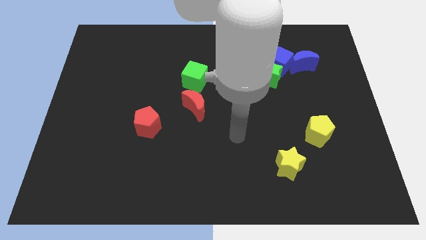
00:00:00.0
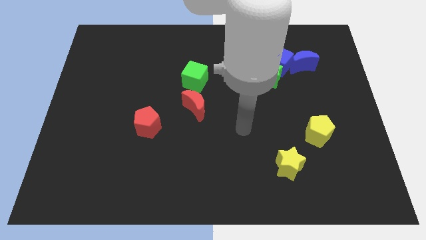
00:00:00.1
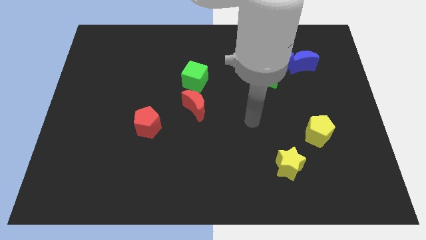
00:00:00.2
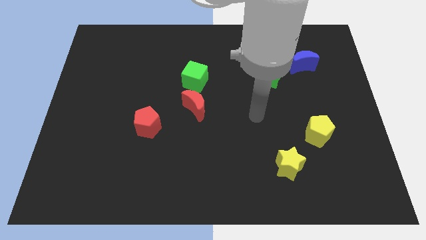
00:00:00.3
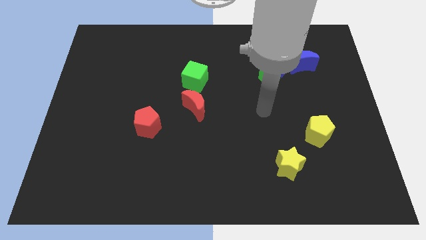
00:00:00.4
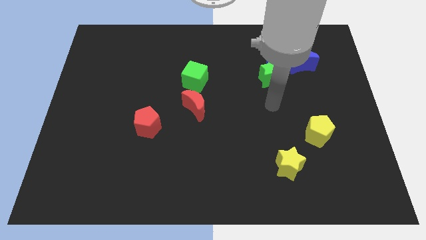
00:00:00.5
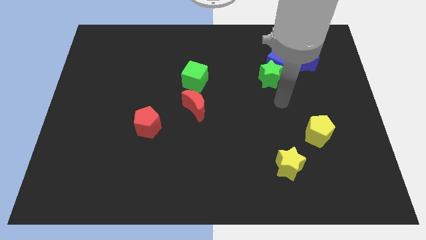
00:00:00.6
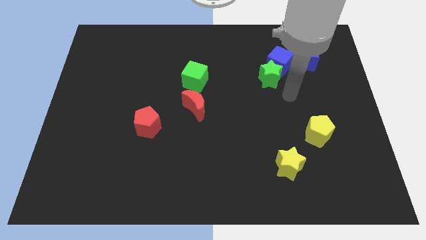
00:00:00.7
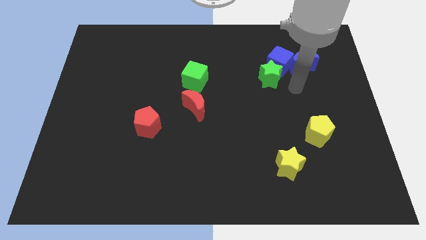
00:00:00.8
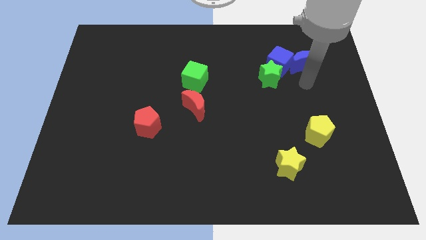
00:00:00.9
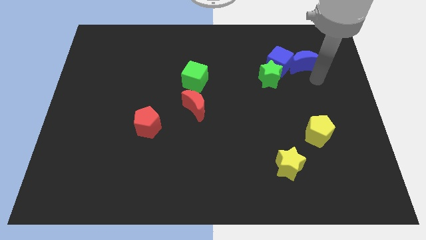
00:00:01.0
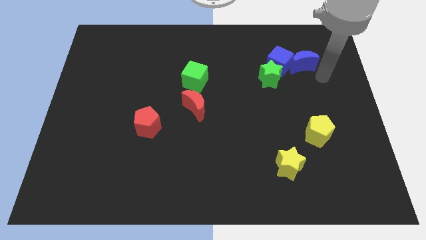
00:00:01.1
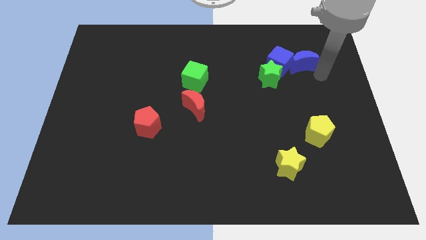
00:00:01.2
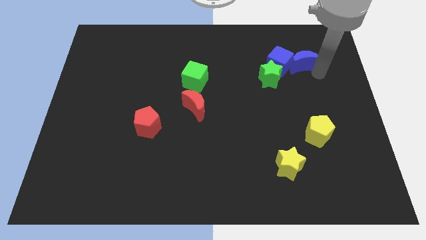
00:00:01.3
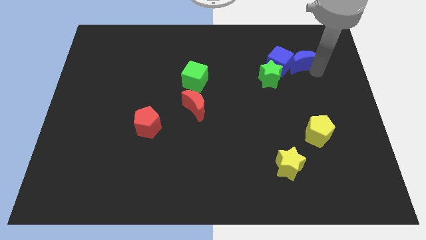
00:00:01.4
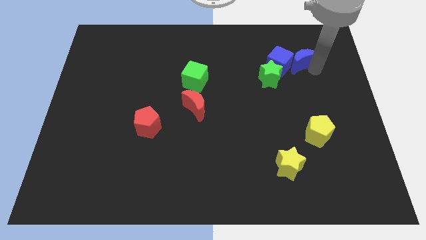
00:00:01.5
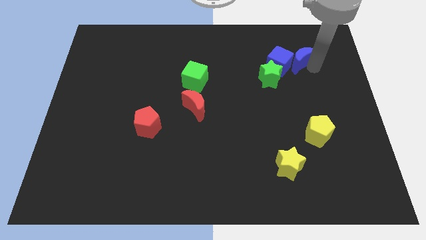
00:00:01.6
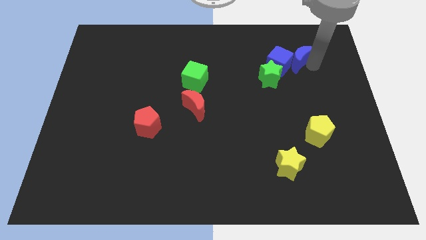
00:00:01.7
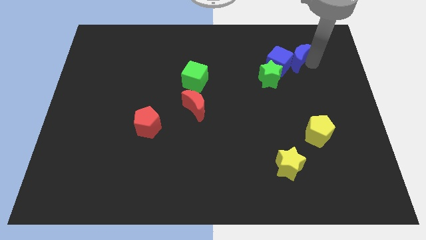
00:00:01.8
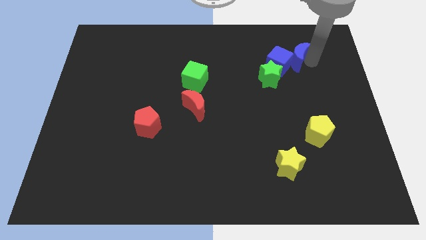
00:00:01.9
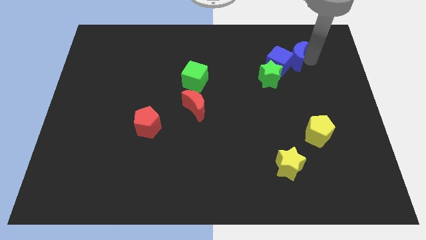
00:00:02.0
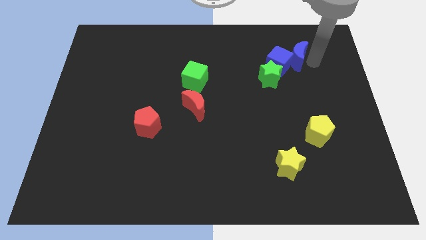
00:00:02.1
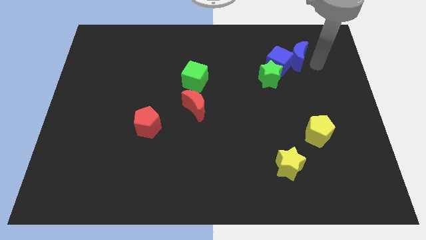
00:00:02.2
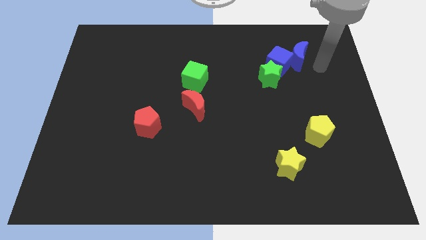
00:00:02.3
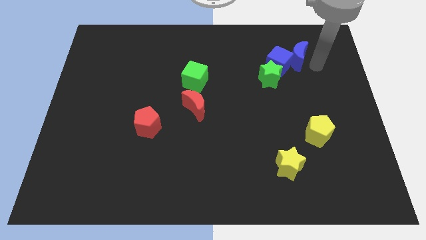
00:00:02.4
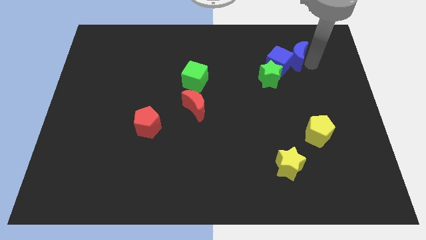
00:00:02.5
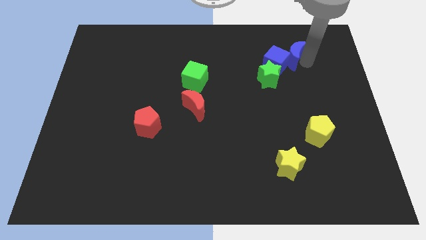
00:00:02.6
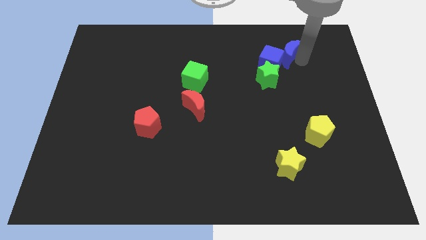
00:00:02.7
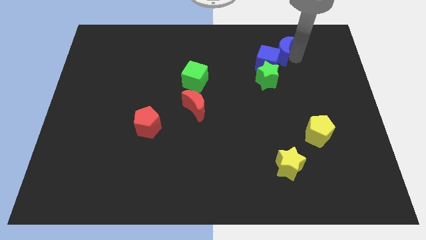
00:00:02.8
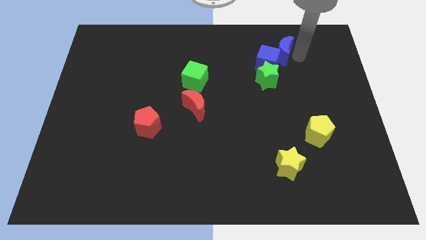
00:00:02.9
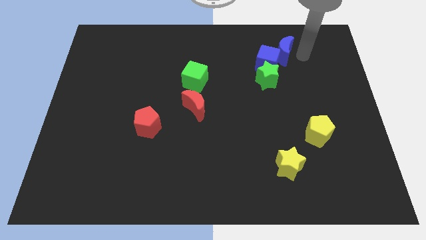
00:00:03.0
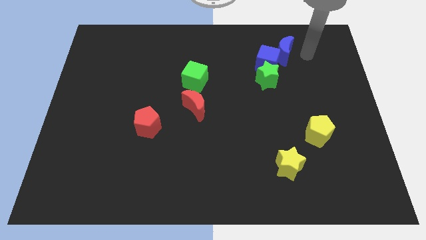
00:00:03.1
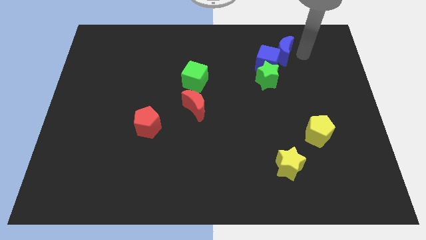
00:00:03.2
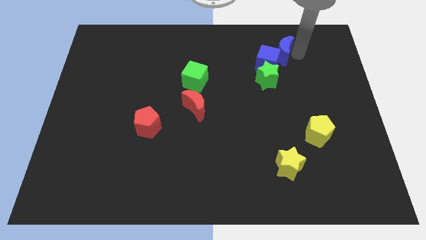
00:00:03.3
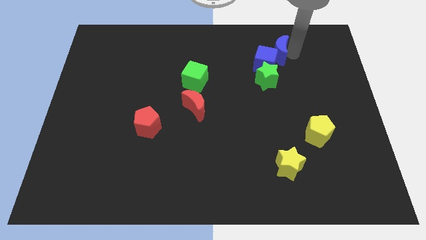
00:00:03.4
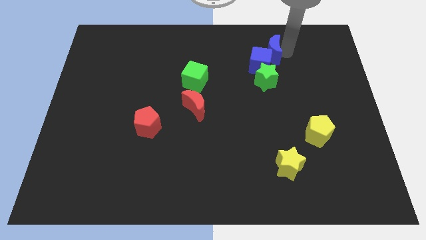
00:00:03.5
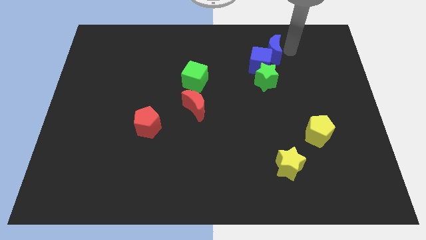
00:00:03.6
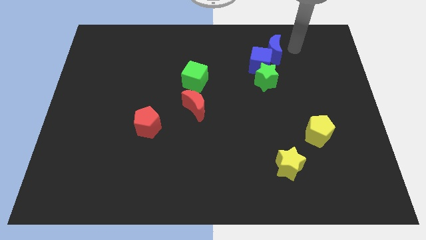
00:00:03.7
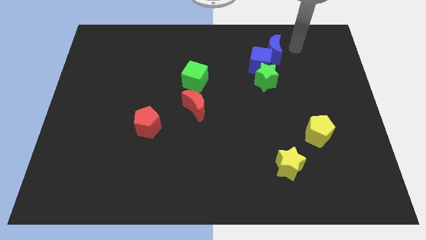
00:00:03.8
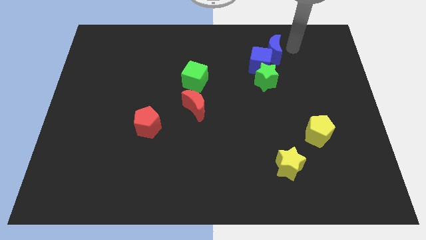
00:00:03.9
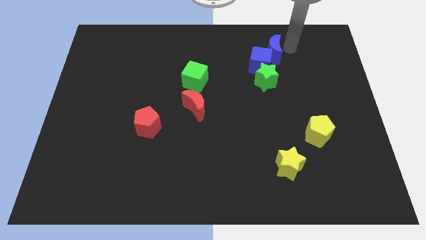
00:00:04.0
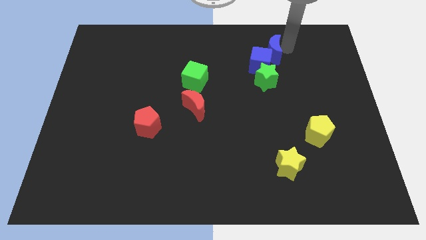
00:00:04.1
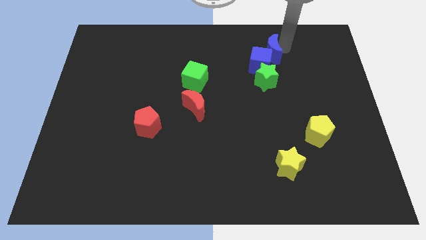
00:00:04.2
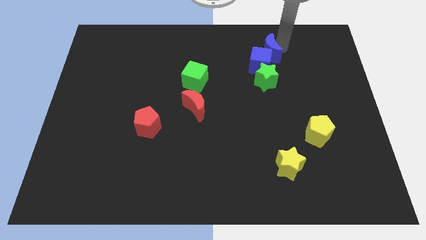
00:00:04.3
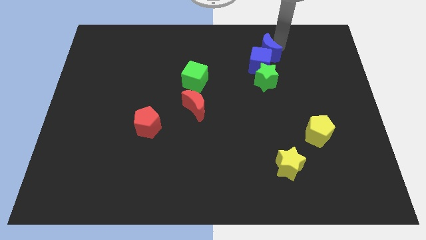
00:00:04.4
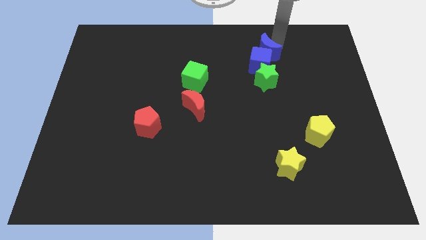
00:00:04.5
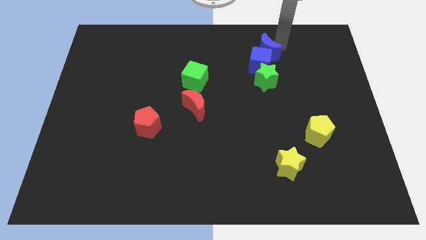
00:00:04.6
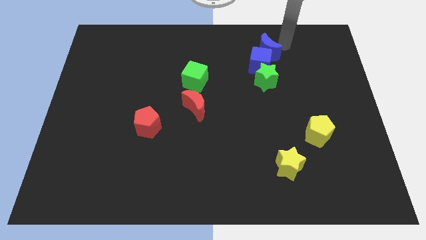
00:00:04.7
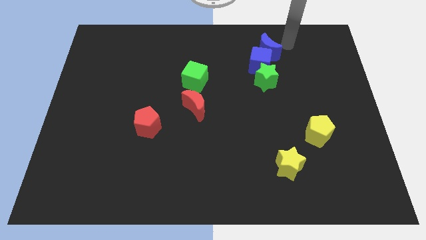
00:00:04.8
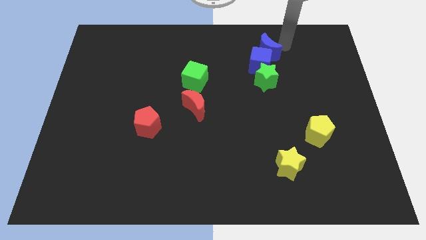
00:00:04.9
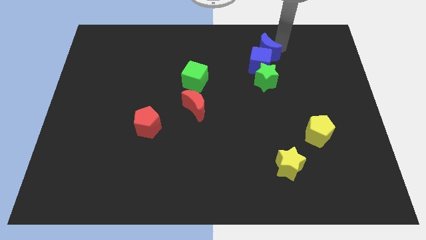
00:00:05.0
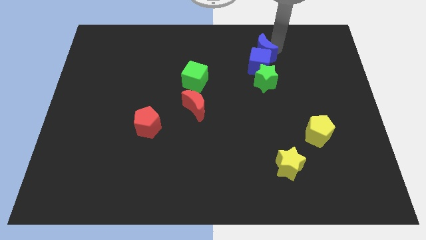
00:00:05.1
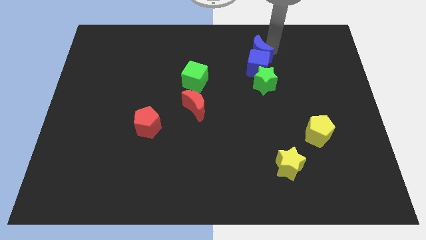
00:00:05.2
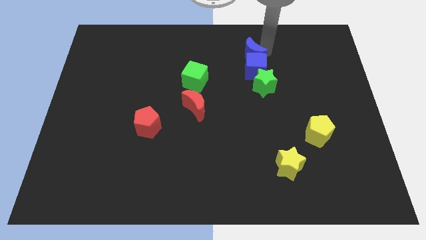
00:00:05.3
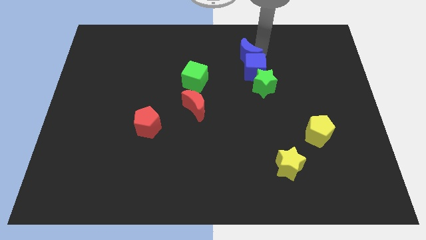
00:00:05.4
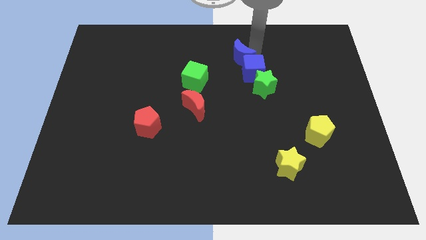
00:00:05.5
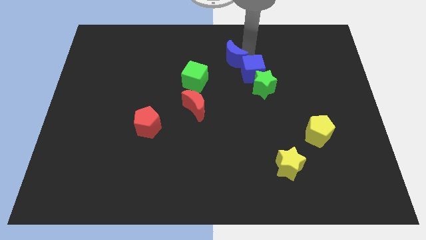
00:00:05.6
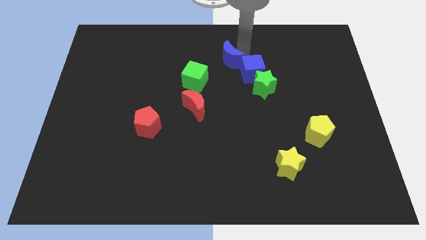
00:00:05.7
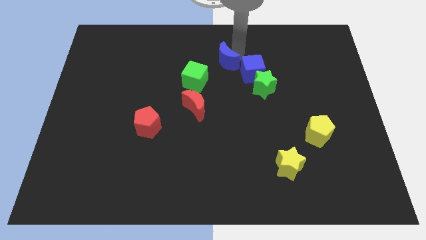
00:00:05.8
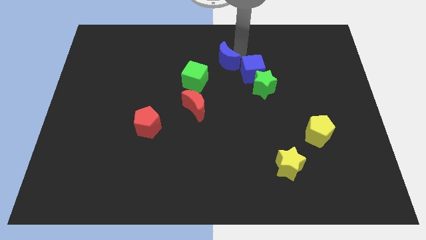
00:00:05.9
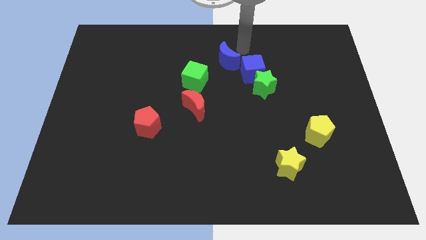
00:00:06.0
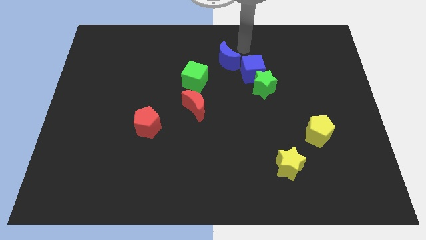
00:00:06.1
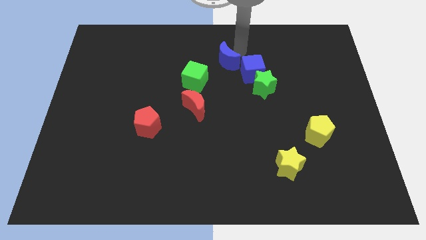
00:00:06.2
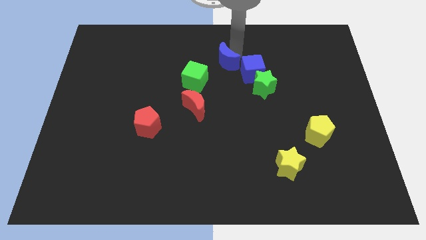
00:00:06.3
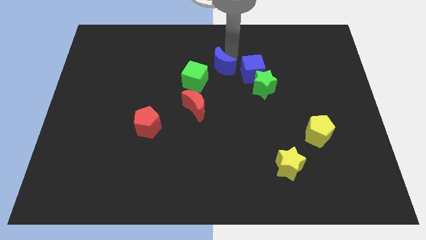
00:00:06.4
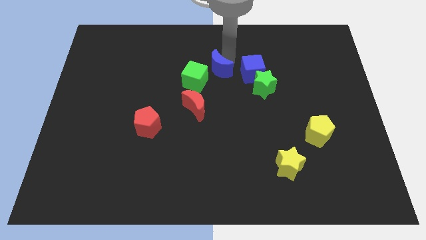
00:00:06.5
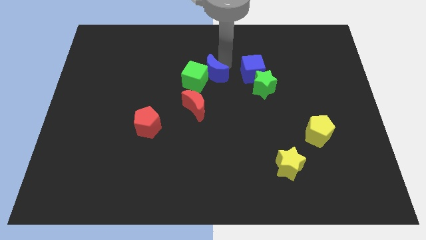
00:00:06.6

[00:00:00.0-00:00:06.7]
slide the blue moon to the green cube

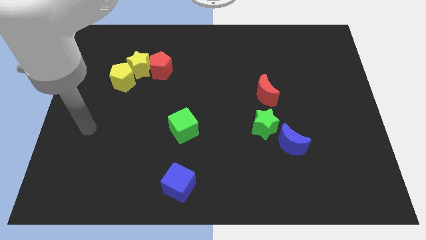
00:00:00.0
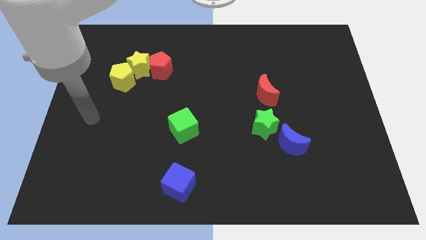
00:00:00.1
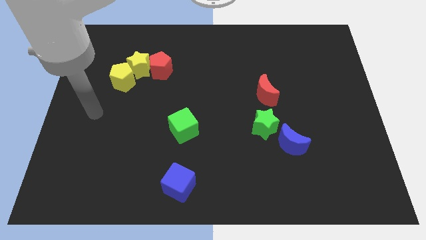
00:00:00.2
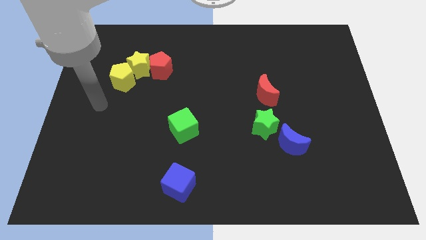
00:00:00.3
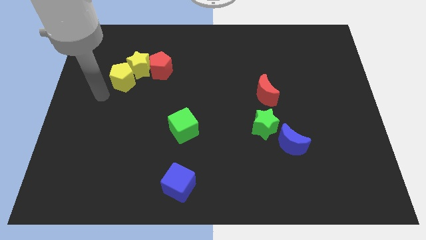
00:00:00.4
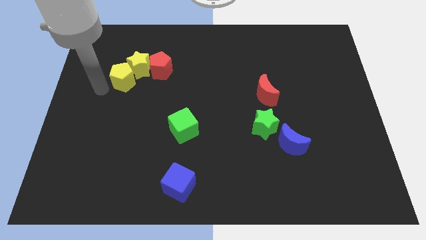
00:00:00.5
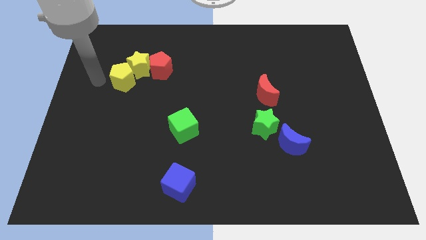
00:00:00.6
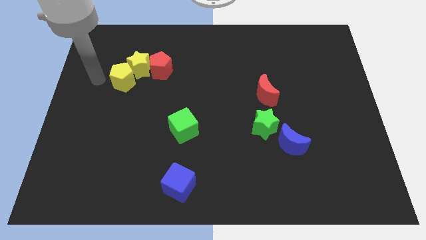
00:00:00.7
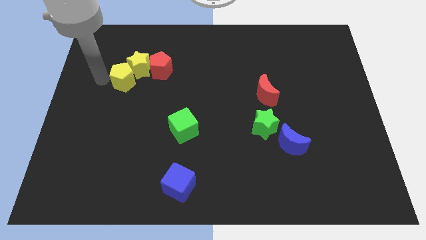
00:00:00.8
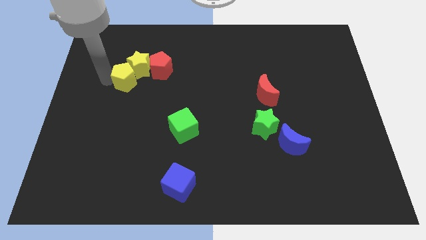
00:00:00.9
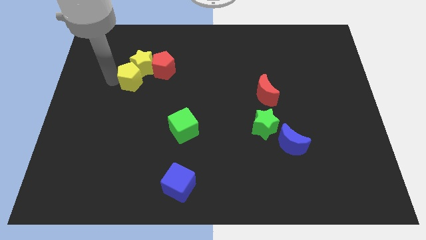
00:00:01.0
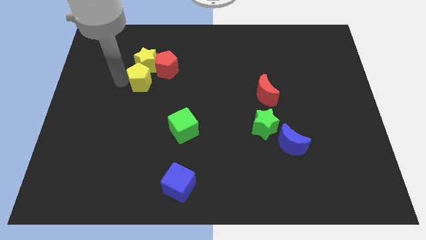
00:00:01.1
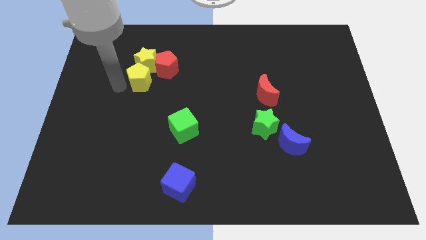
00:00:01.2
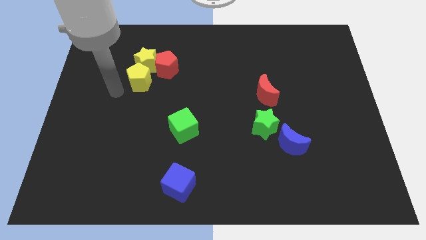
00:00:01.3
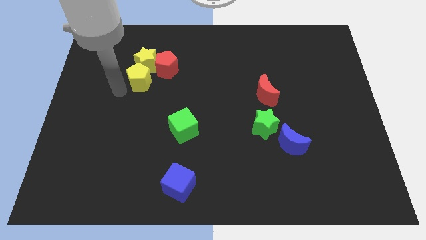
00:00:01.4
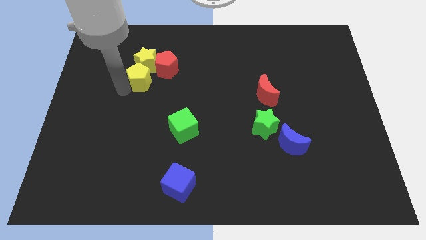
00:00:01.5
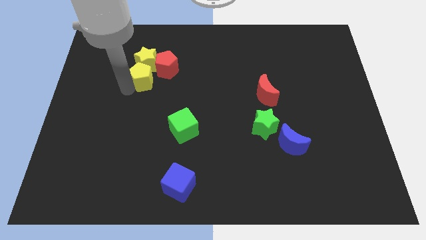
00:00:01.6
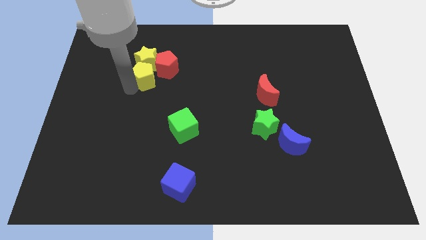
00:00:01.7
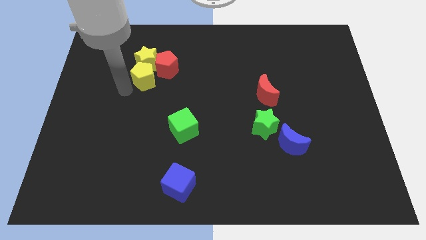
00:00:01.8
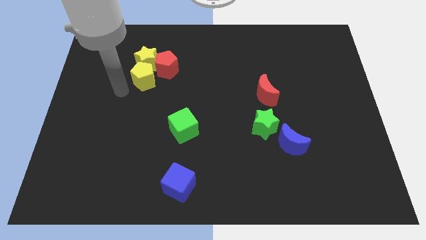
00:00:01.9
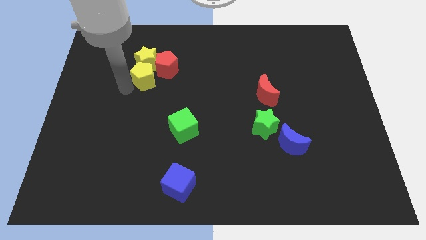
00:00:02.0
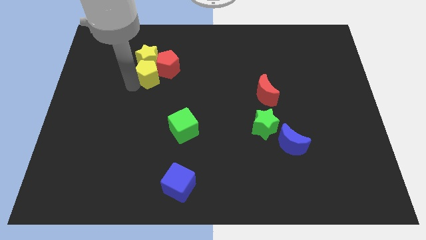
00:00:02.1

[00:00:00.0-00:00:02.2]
move the yellow pentagon next to the red pentagon
